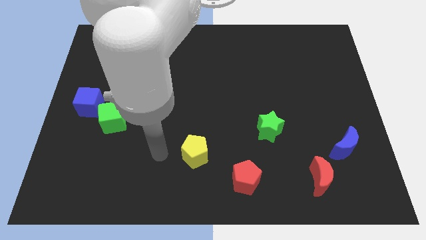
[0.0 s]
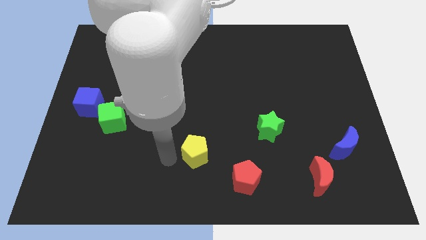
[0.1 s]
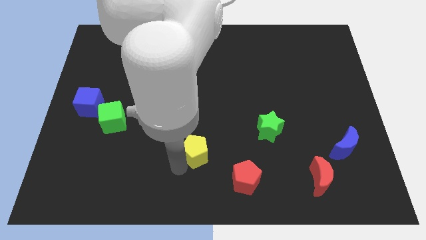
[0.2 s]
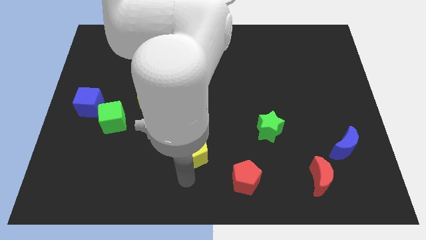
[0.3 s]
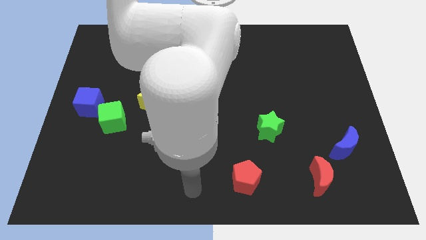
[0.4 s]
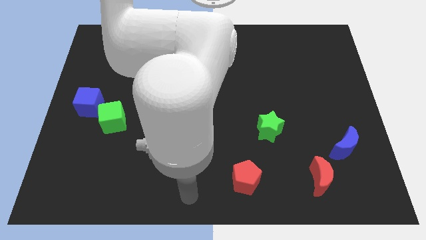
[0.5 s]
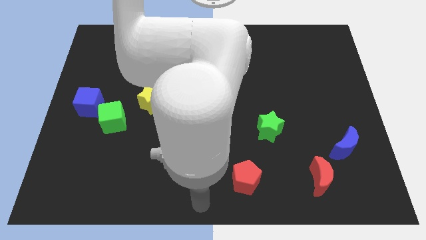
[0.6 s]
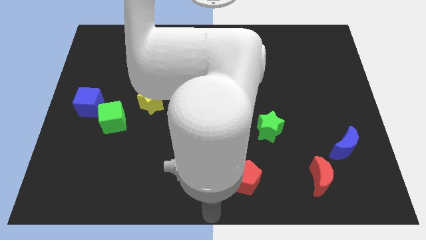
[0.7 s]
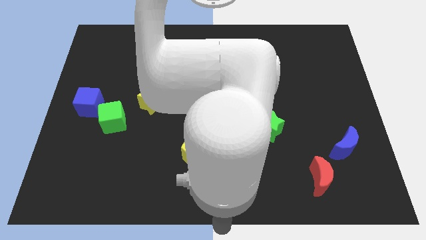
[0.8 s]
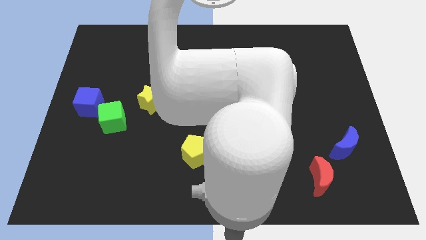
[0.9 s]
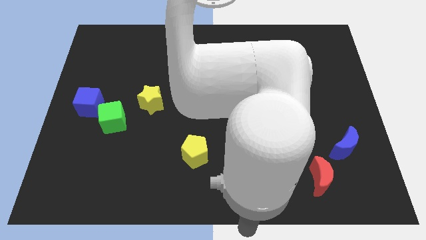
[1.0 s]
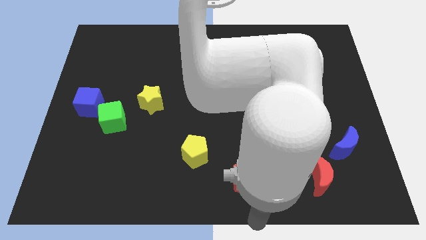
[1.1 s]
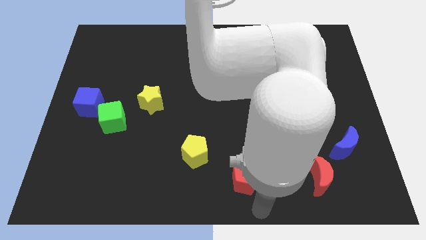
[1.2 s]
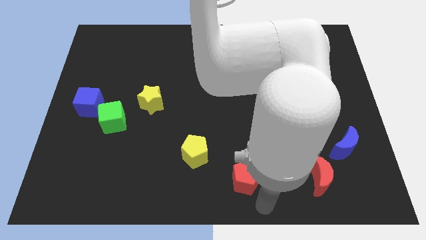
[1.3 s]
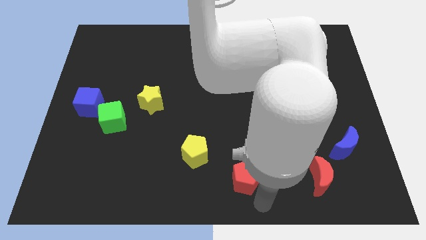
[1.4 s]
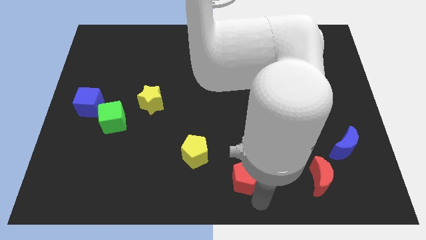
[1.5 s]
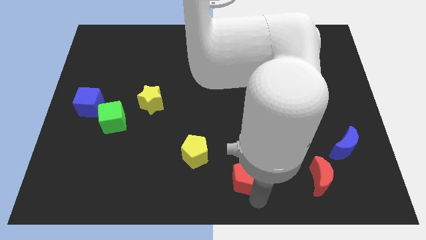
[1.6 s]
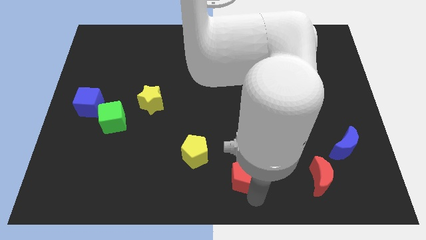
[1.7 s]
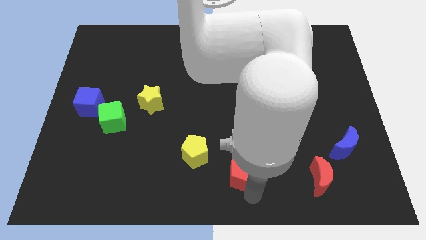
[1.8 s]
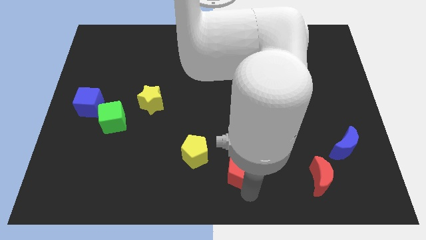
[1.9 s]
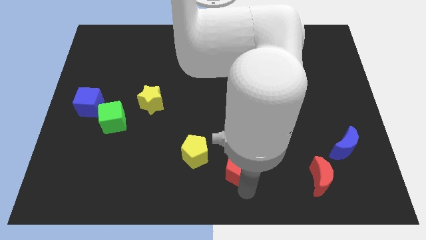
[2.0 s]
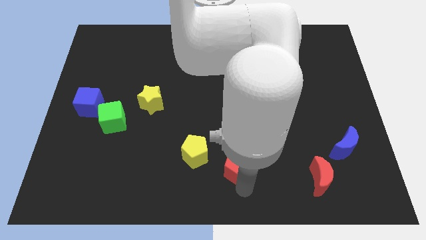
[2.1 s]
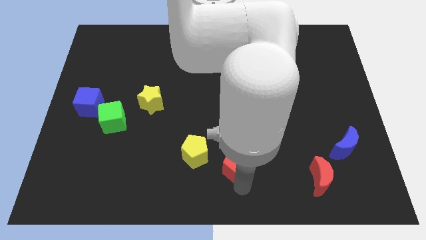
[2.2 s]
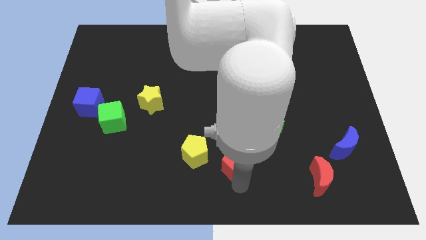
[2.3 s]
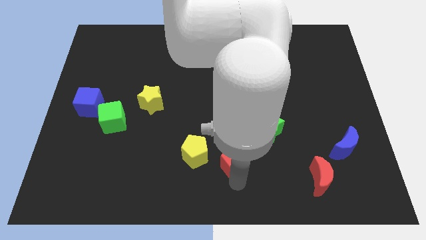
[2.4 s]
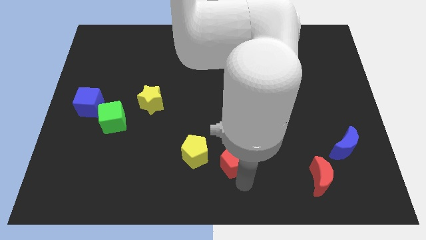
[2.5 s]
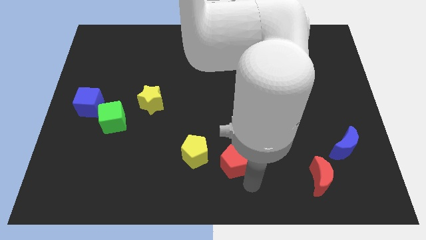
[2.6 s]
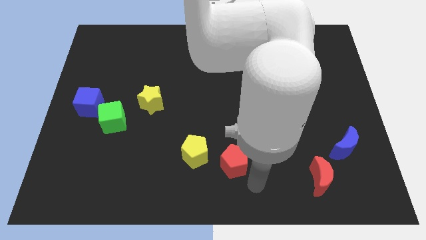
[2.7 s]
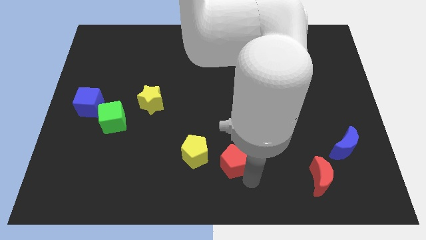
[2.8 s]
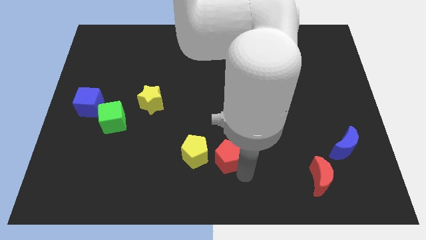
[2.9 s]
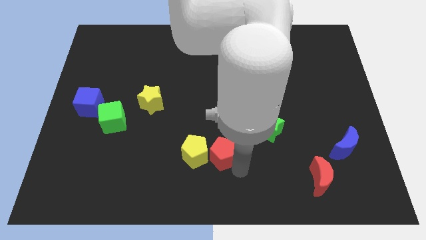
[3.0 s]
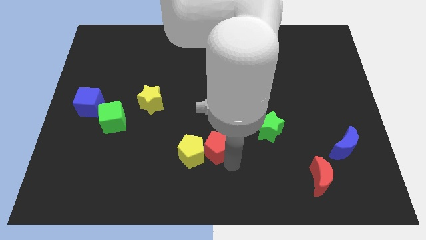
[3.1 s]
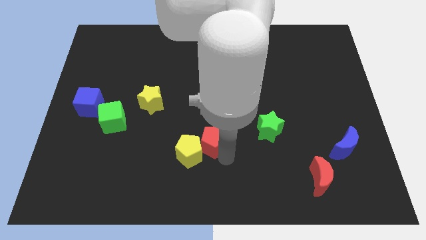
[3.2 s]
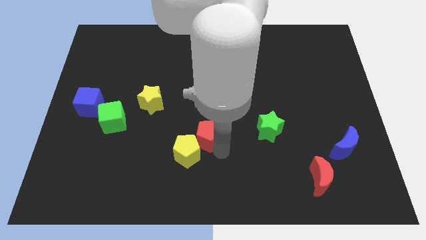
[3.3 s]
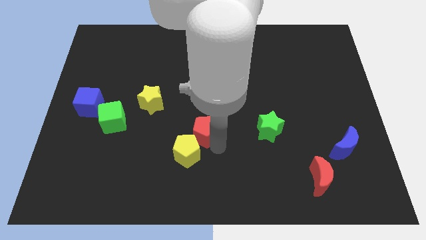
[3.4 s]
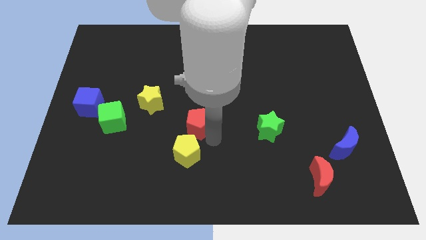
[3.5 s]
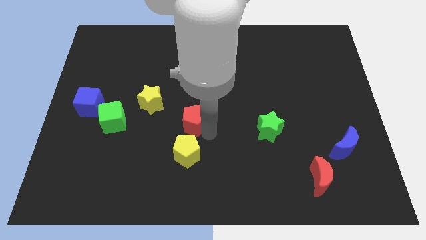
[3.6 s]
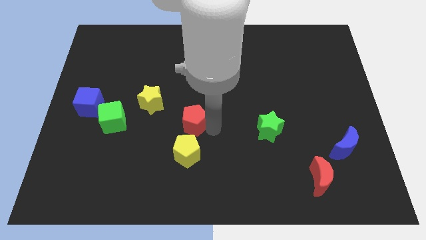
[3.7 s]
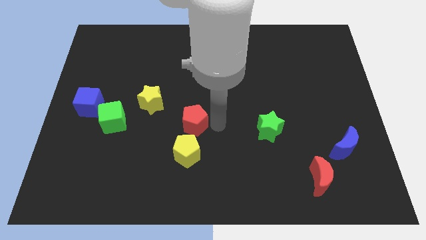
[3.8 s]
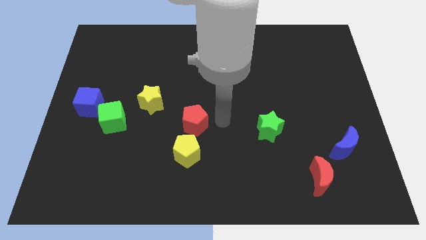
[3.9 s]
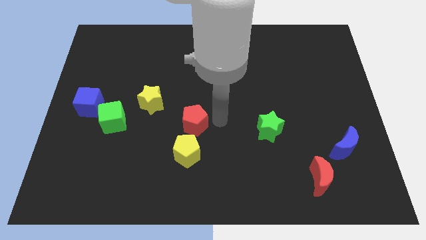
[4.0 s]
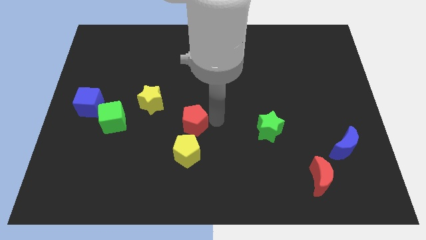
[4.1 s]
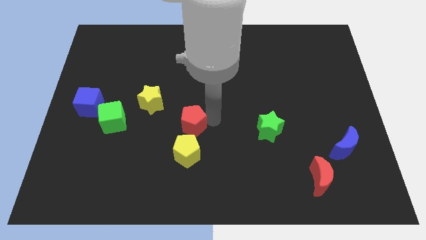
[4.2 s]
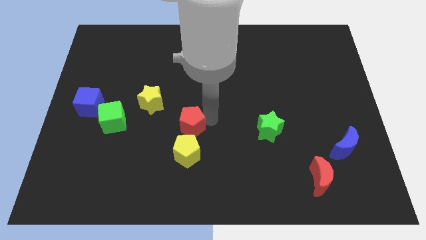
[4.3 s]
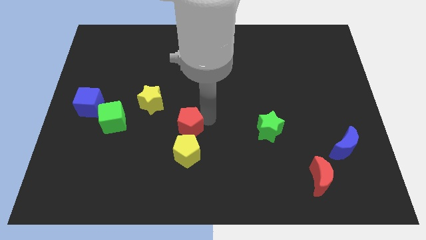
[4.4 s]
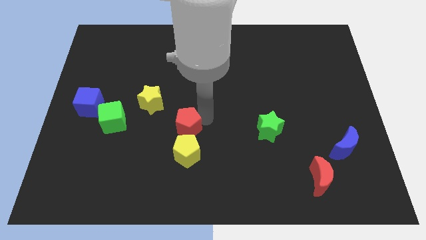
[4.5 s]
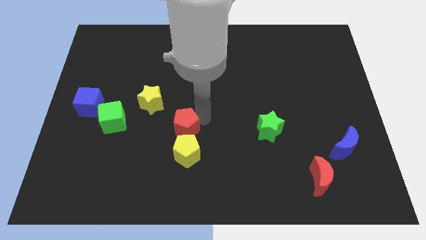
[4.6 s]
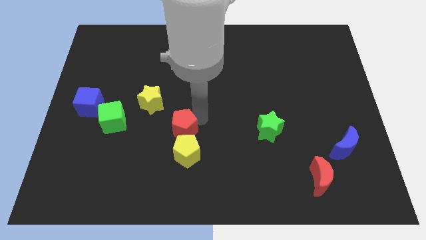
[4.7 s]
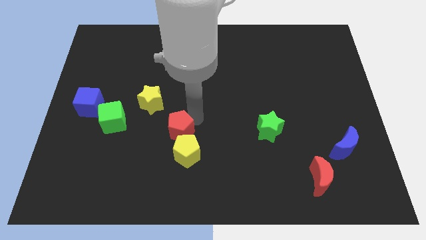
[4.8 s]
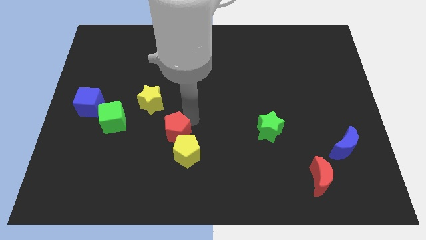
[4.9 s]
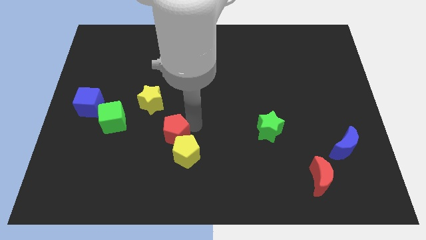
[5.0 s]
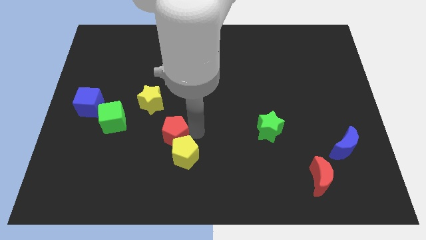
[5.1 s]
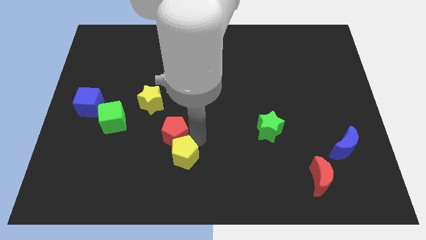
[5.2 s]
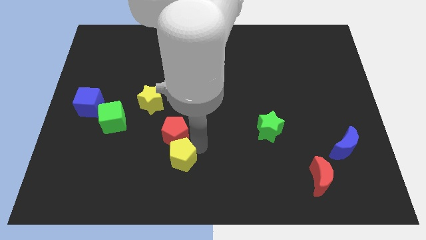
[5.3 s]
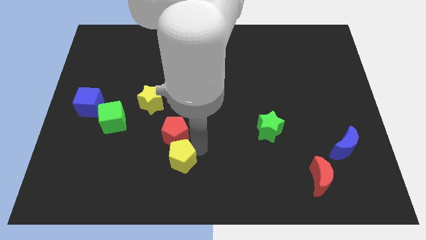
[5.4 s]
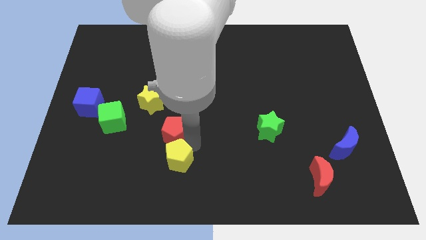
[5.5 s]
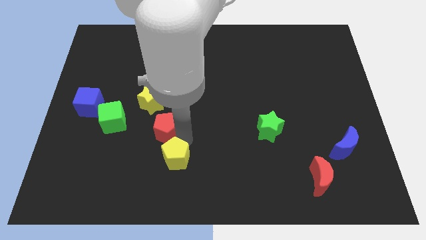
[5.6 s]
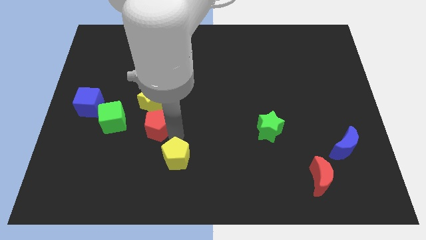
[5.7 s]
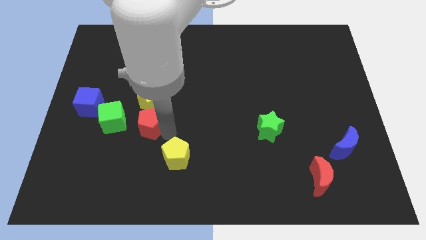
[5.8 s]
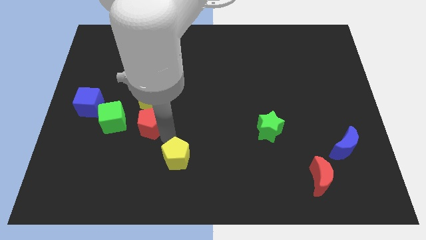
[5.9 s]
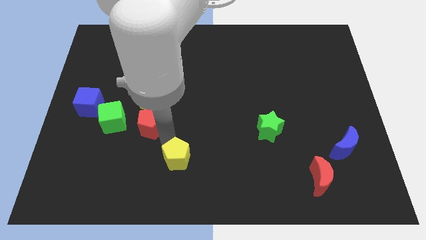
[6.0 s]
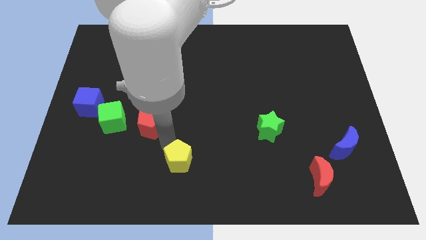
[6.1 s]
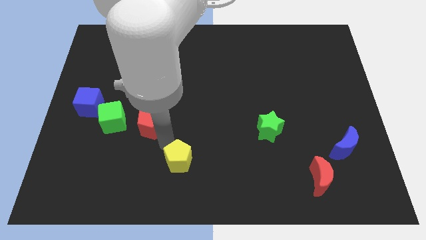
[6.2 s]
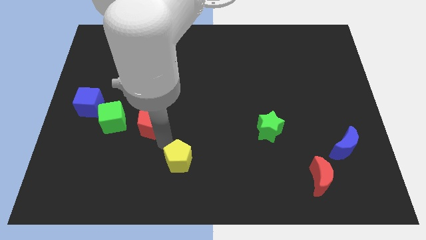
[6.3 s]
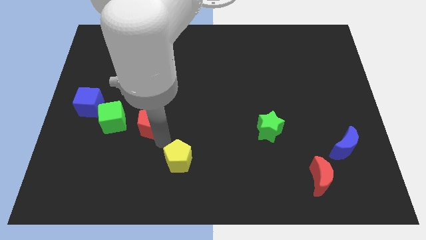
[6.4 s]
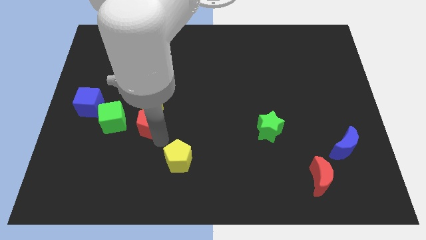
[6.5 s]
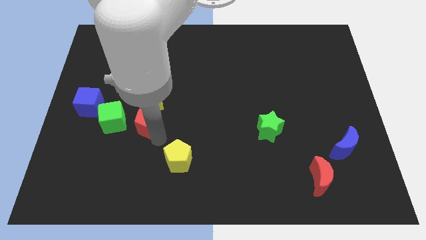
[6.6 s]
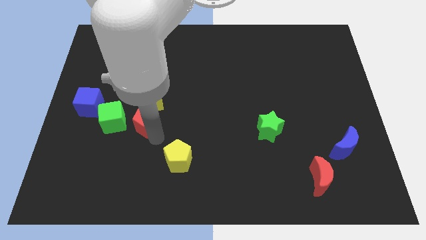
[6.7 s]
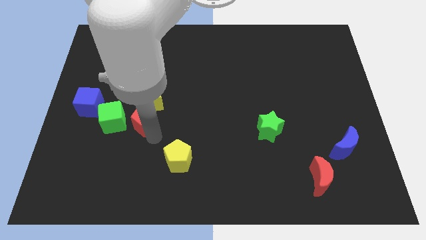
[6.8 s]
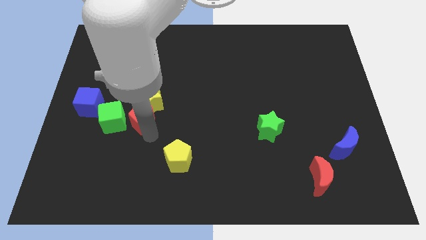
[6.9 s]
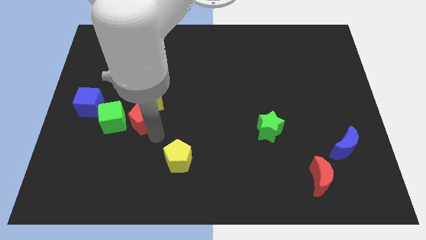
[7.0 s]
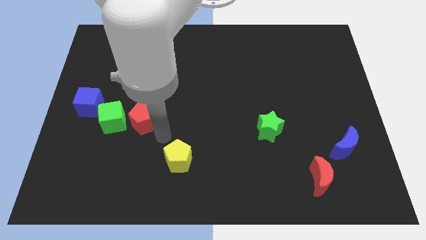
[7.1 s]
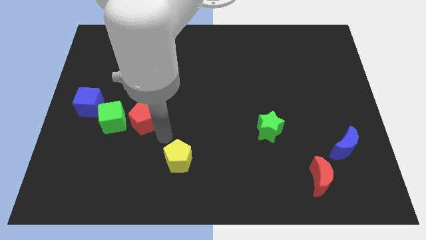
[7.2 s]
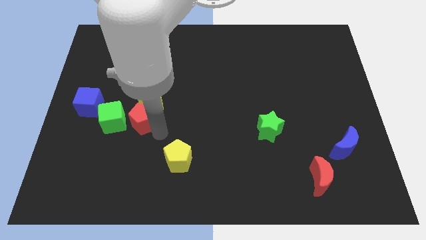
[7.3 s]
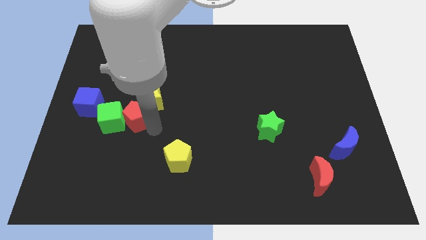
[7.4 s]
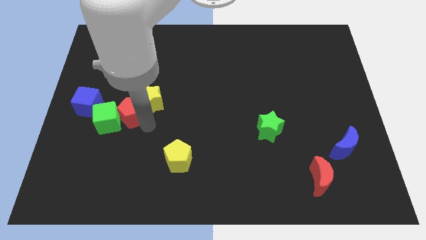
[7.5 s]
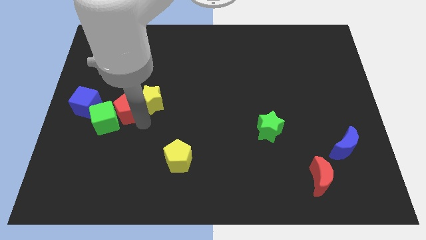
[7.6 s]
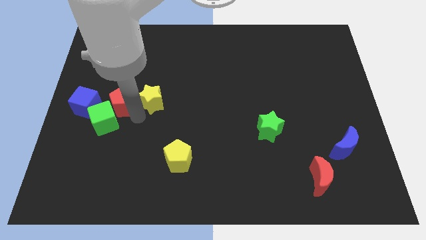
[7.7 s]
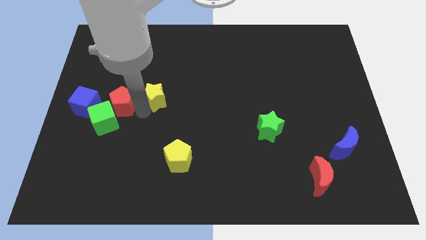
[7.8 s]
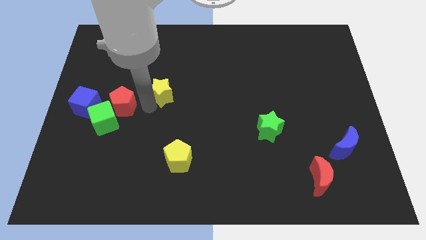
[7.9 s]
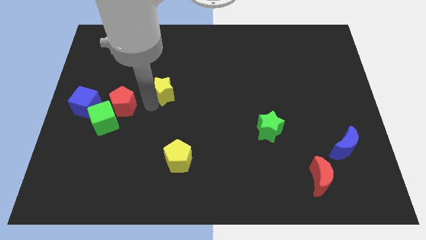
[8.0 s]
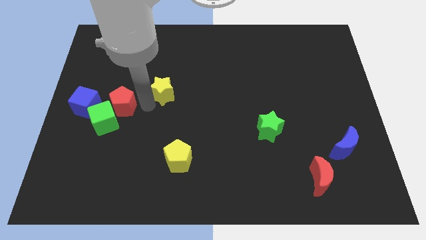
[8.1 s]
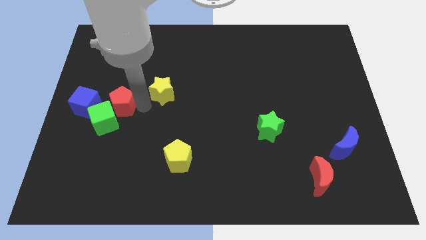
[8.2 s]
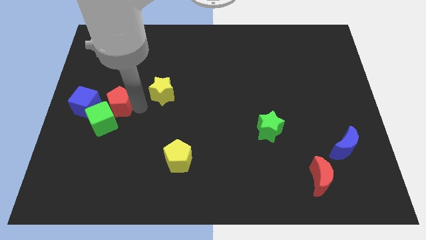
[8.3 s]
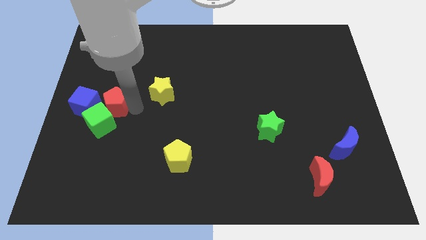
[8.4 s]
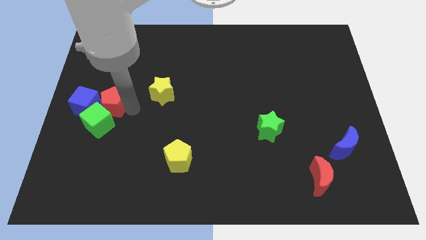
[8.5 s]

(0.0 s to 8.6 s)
put the red pentagon to the blue cube
